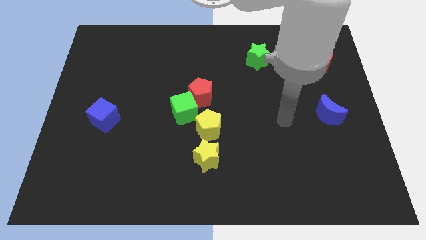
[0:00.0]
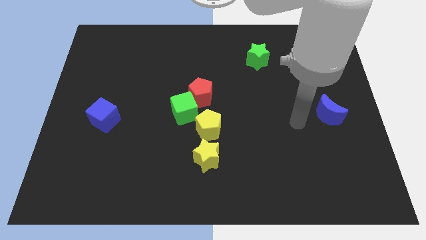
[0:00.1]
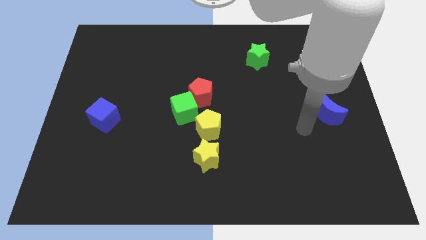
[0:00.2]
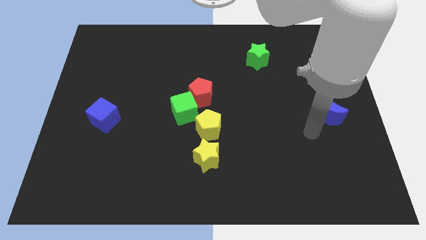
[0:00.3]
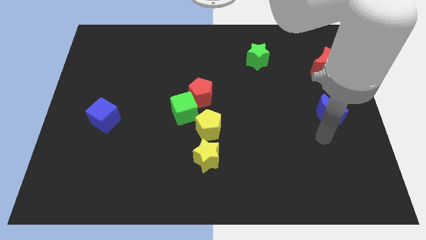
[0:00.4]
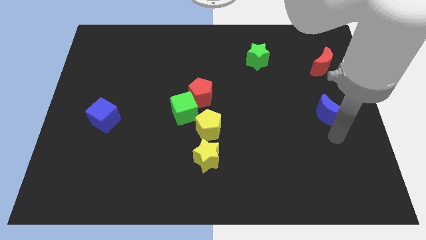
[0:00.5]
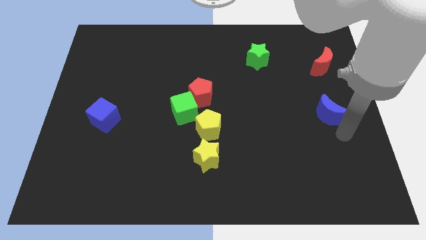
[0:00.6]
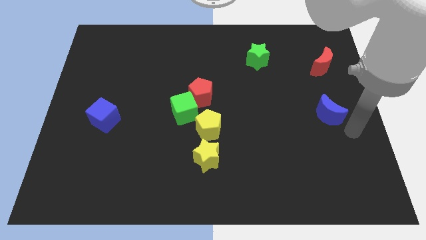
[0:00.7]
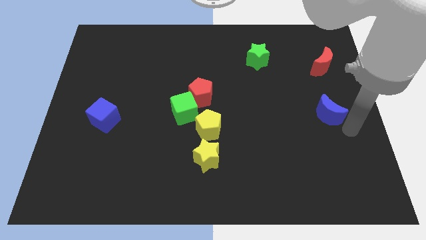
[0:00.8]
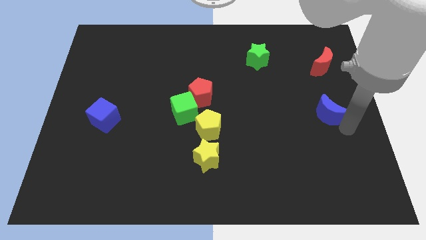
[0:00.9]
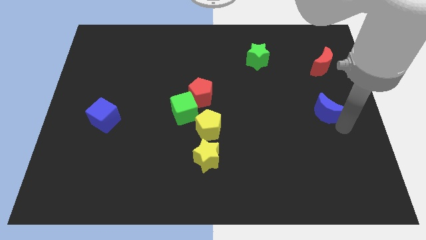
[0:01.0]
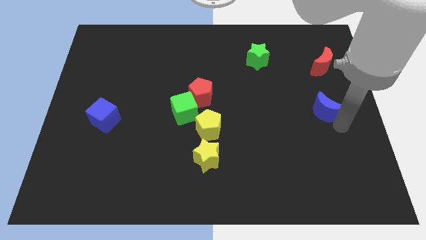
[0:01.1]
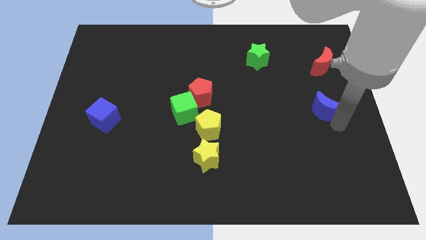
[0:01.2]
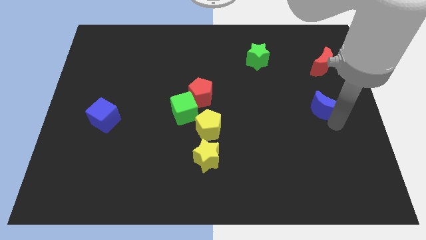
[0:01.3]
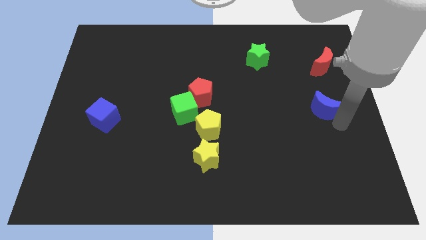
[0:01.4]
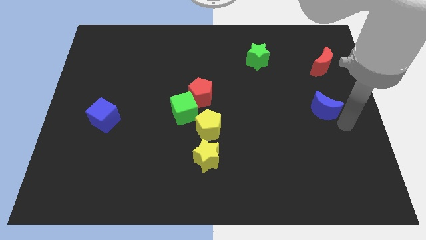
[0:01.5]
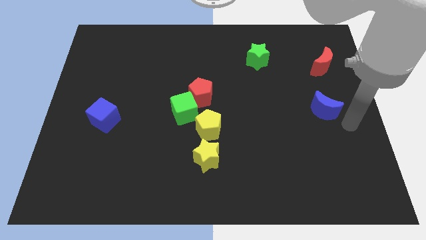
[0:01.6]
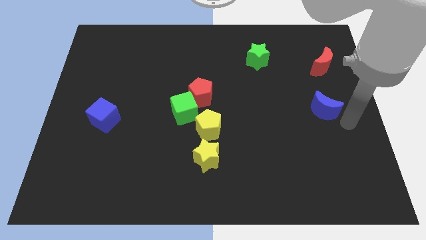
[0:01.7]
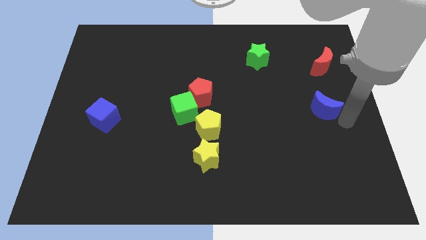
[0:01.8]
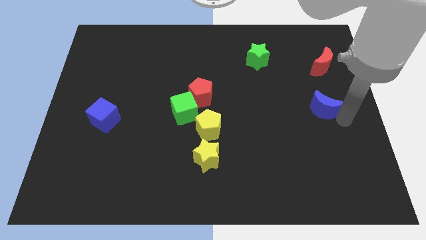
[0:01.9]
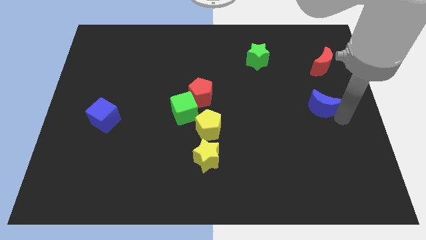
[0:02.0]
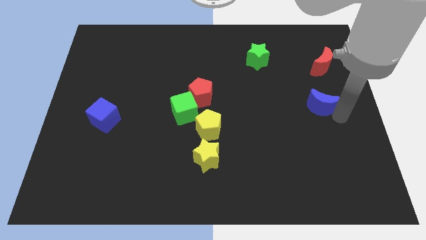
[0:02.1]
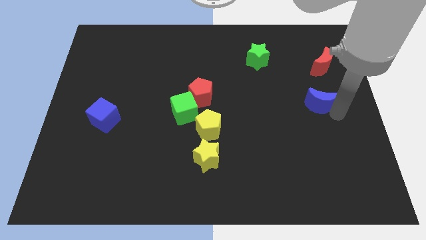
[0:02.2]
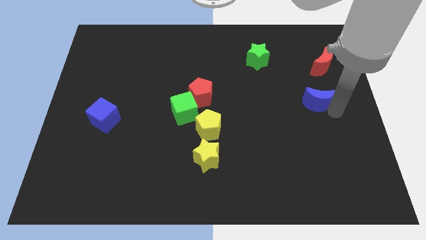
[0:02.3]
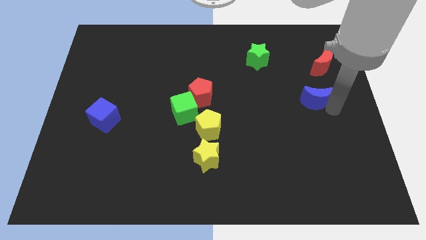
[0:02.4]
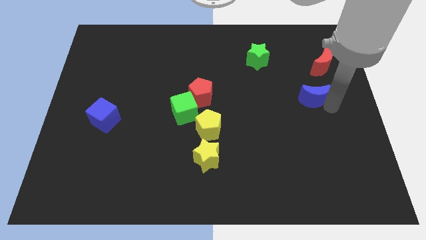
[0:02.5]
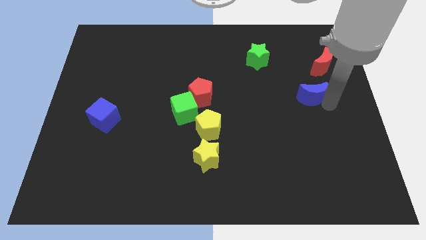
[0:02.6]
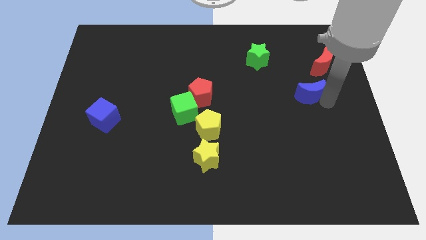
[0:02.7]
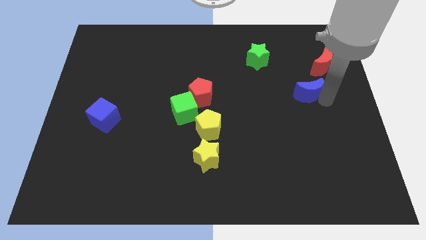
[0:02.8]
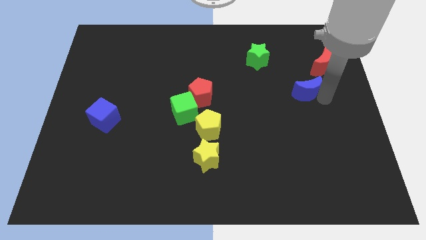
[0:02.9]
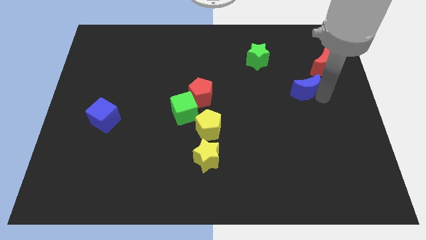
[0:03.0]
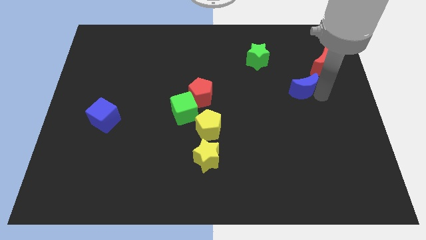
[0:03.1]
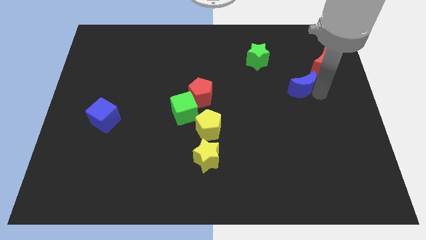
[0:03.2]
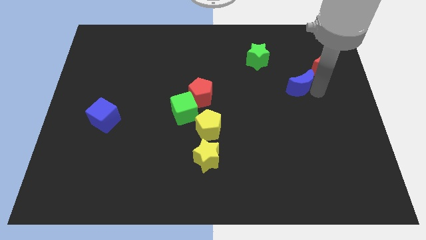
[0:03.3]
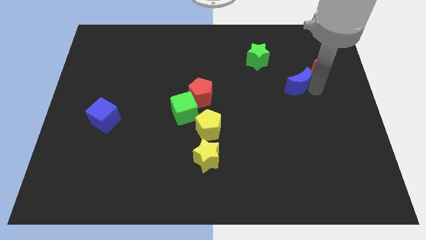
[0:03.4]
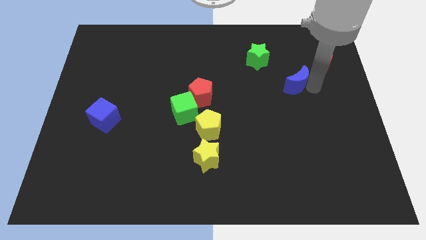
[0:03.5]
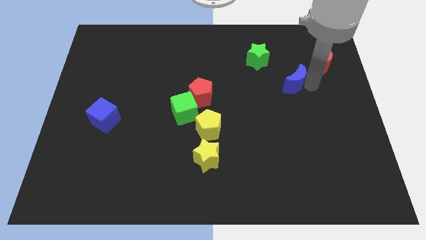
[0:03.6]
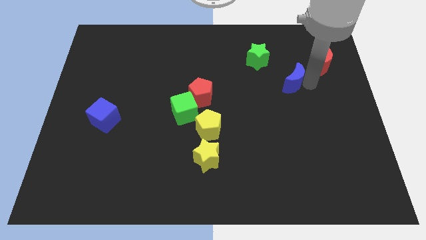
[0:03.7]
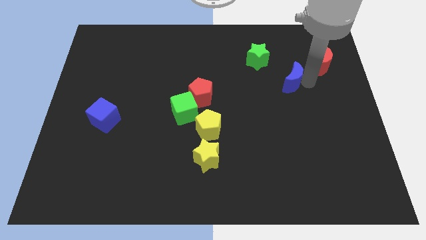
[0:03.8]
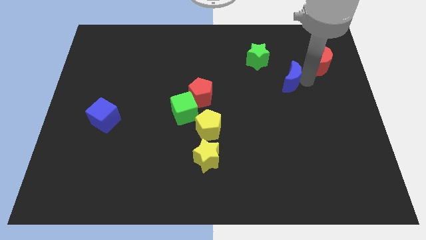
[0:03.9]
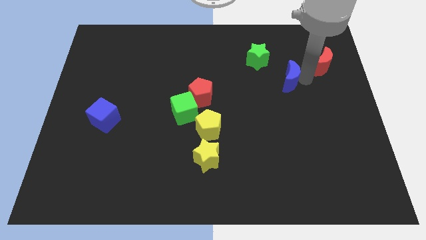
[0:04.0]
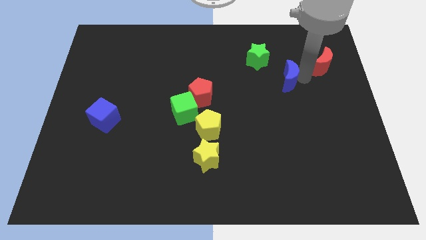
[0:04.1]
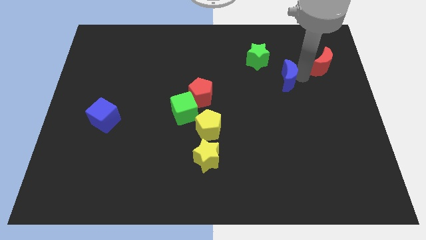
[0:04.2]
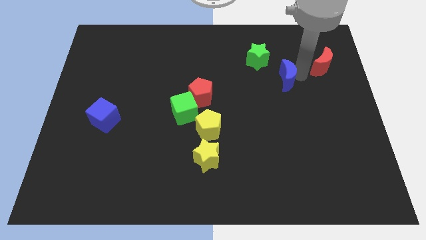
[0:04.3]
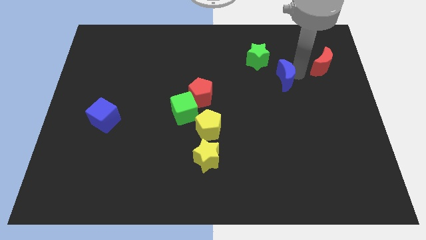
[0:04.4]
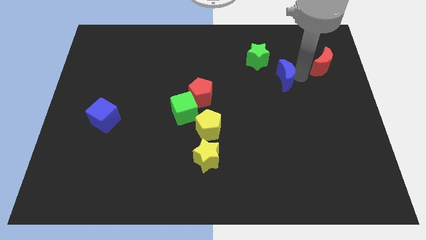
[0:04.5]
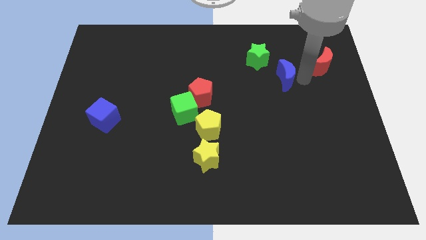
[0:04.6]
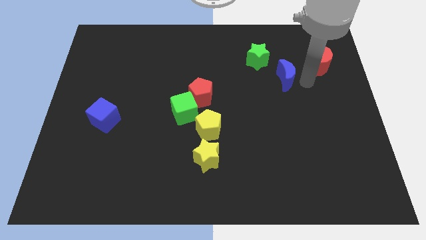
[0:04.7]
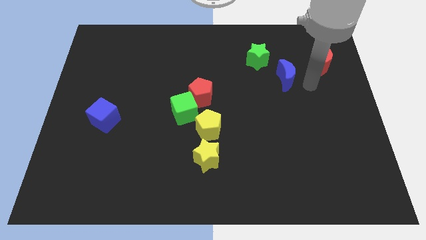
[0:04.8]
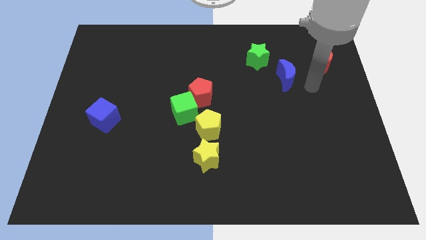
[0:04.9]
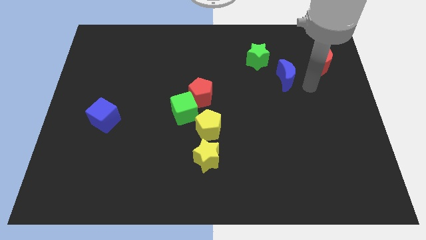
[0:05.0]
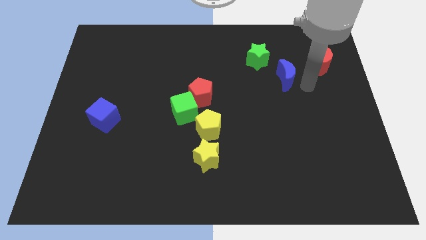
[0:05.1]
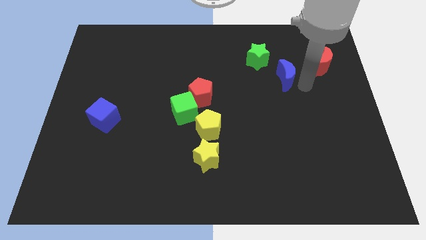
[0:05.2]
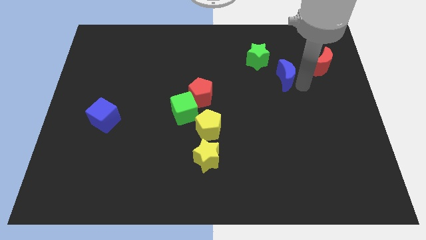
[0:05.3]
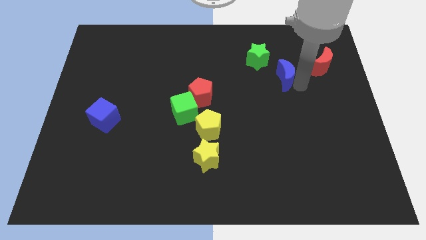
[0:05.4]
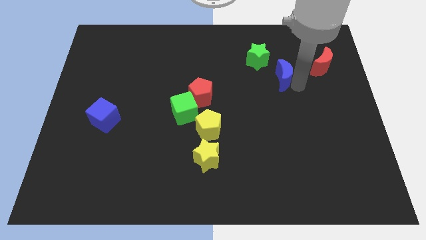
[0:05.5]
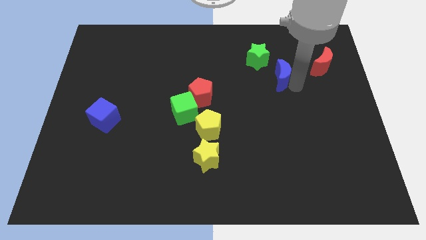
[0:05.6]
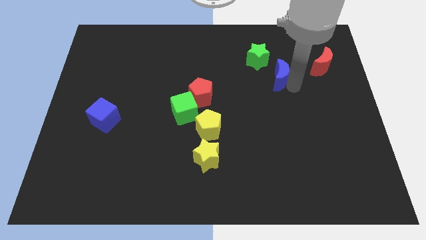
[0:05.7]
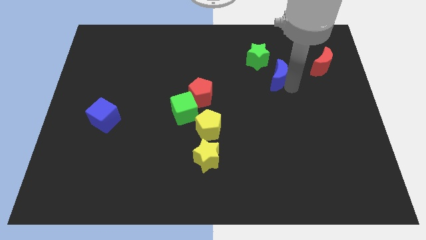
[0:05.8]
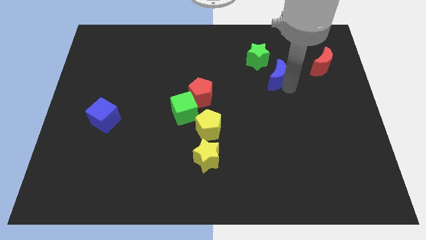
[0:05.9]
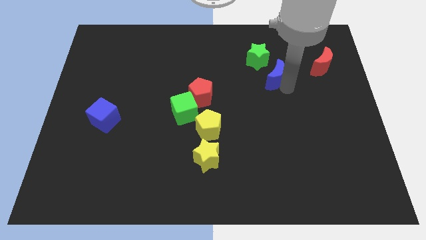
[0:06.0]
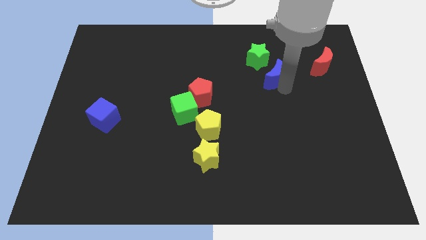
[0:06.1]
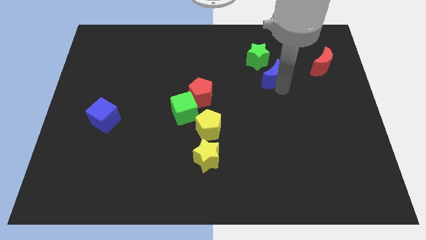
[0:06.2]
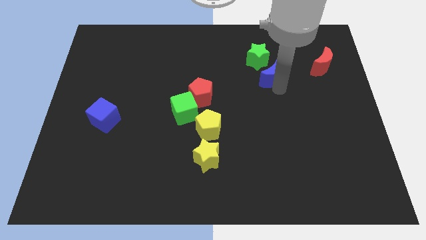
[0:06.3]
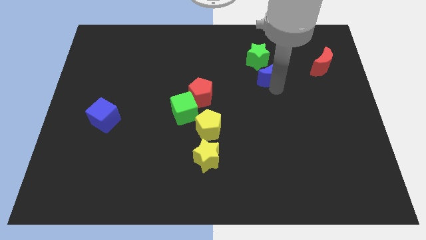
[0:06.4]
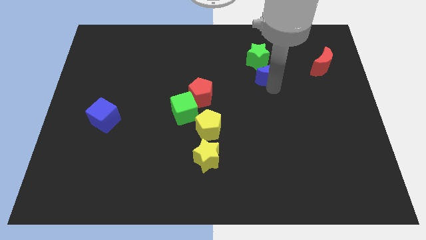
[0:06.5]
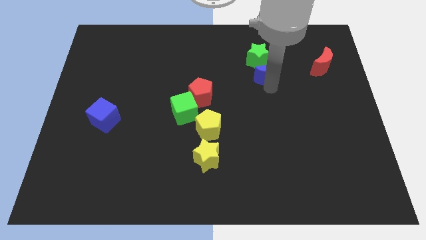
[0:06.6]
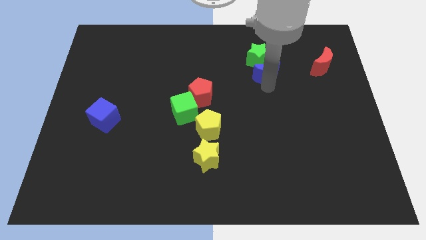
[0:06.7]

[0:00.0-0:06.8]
put the blue moon to the green star

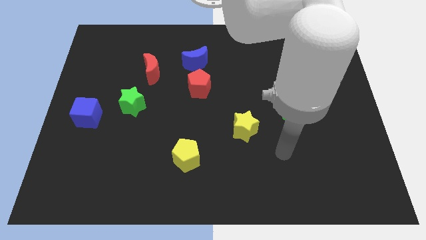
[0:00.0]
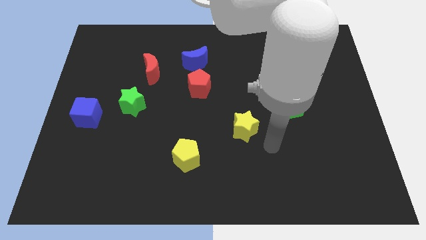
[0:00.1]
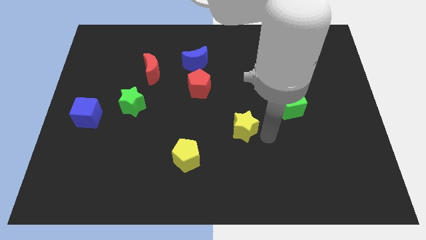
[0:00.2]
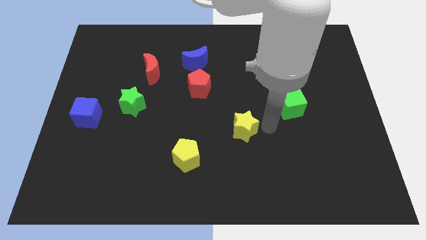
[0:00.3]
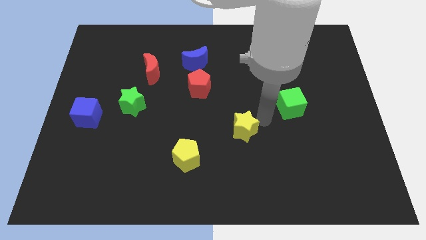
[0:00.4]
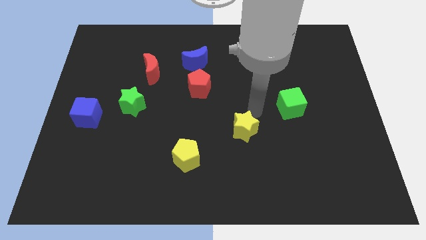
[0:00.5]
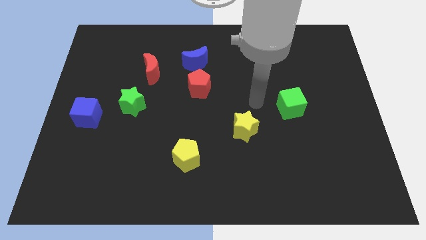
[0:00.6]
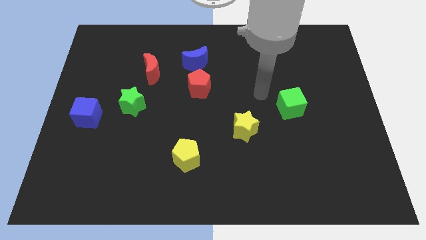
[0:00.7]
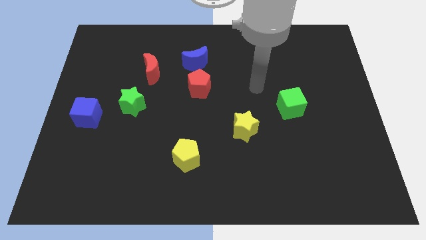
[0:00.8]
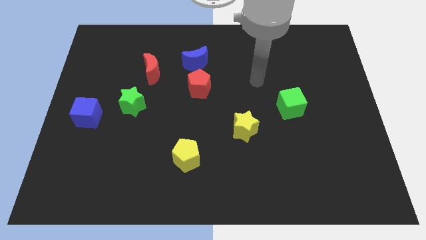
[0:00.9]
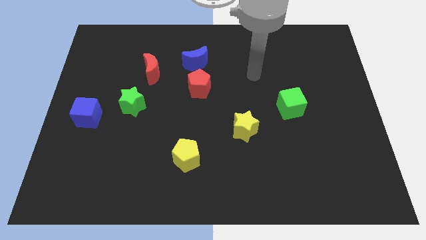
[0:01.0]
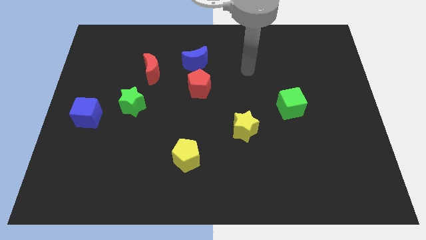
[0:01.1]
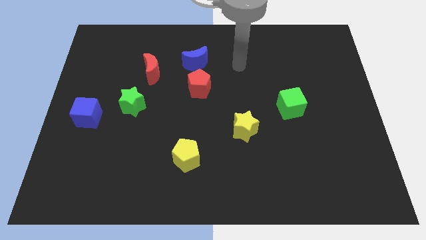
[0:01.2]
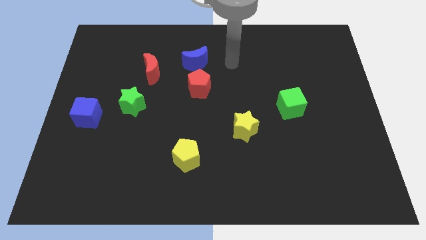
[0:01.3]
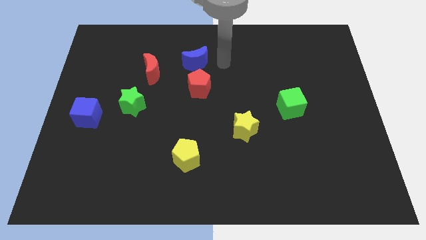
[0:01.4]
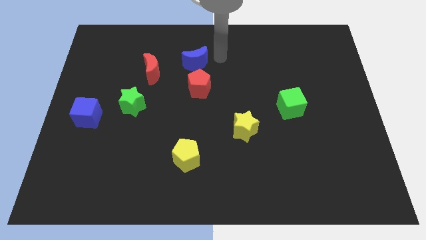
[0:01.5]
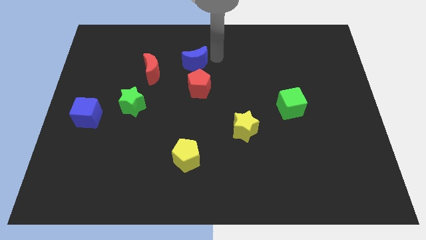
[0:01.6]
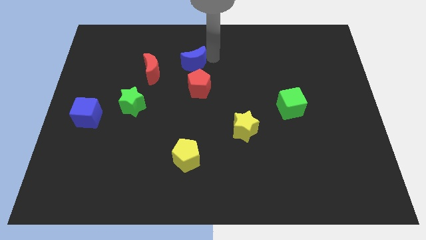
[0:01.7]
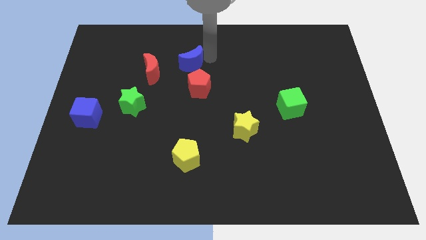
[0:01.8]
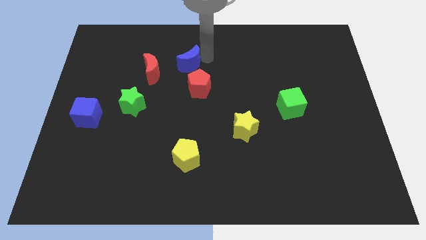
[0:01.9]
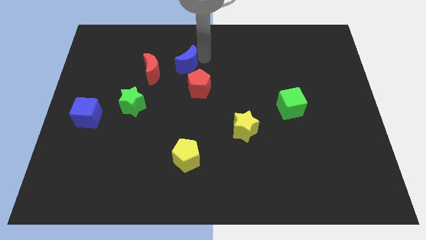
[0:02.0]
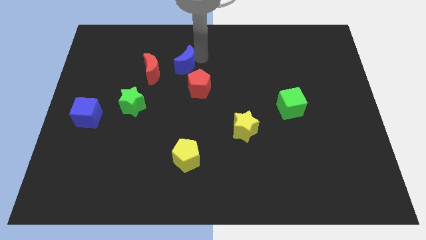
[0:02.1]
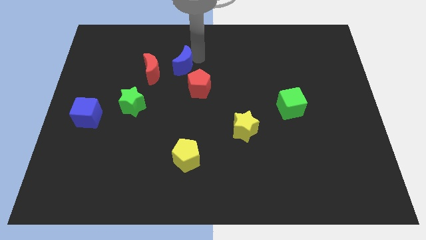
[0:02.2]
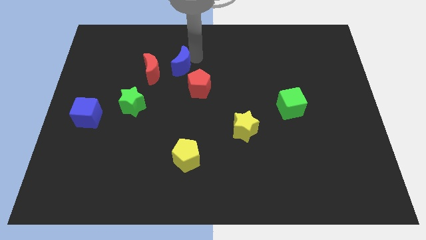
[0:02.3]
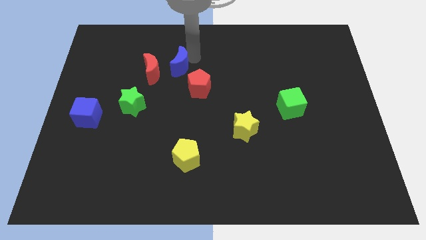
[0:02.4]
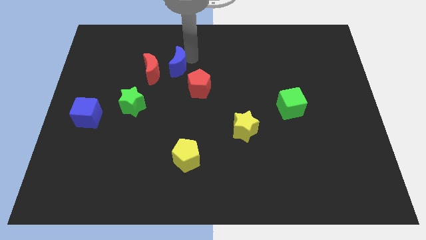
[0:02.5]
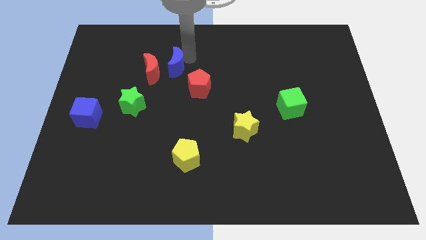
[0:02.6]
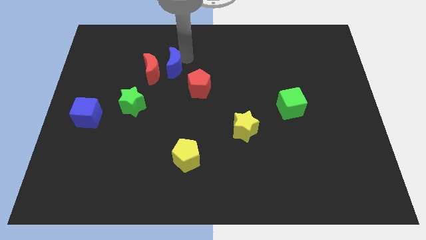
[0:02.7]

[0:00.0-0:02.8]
slide the blue moon close to the red moon
